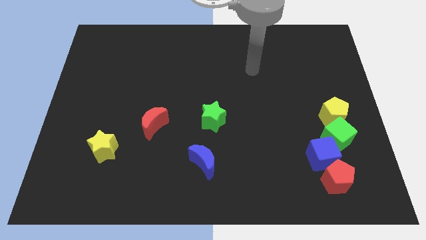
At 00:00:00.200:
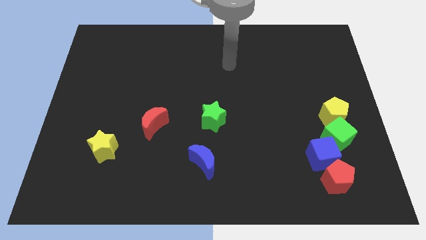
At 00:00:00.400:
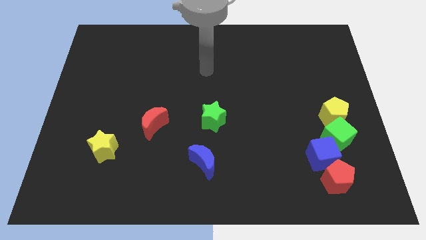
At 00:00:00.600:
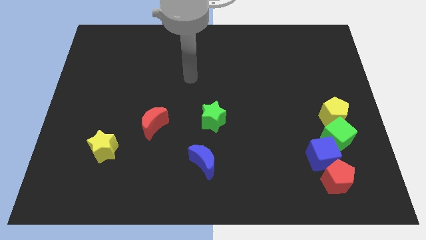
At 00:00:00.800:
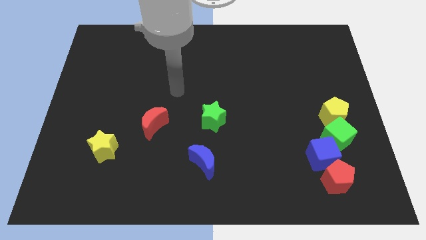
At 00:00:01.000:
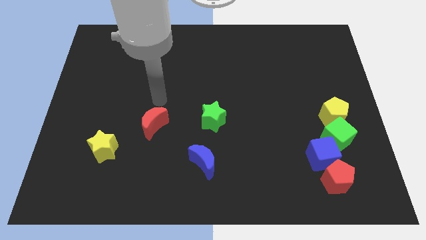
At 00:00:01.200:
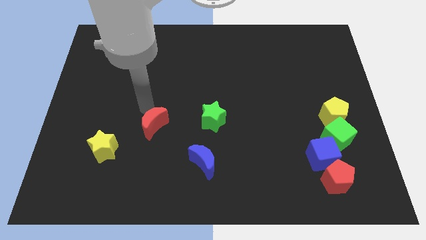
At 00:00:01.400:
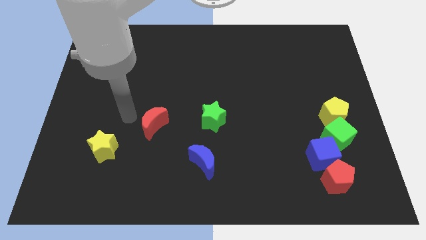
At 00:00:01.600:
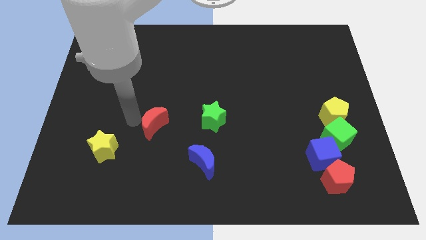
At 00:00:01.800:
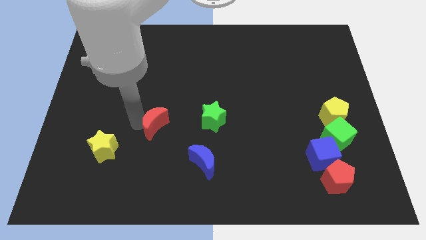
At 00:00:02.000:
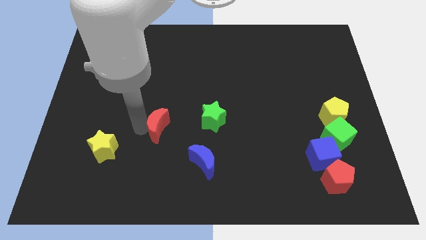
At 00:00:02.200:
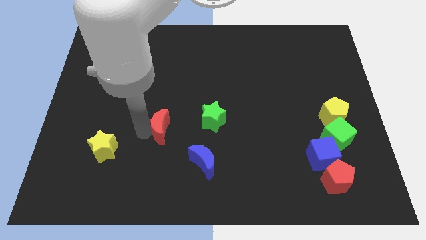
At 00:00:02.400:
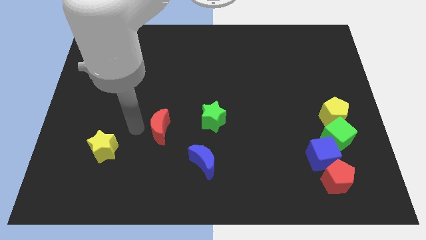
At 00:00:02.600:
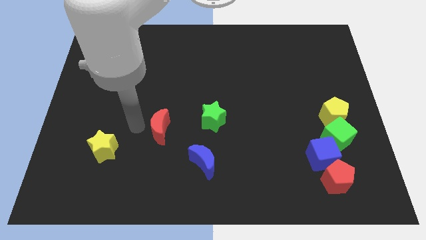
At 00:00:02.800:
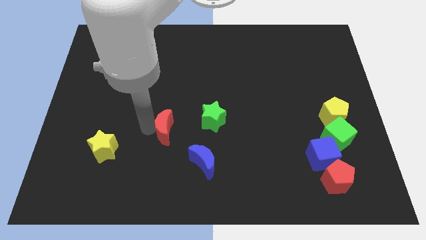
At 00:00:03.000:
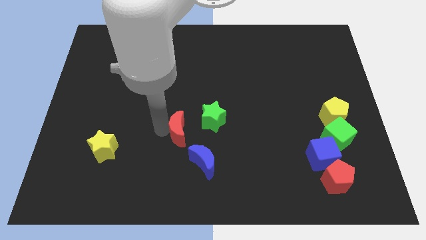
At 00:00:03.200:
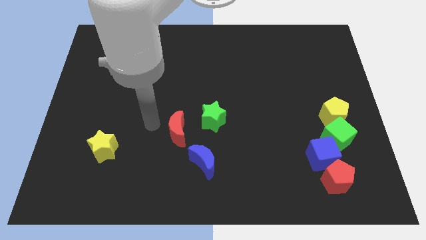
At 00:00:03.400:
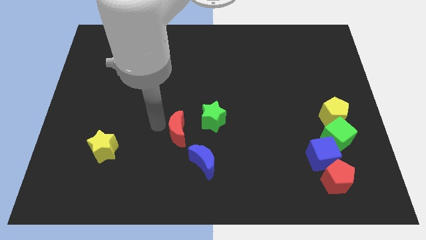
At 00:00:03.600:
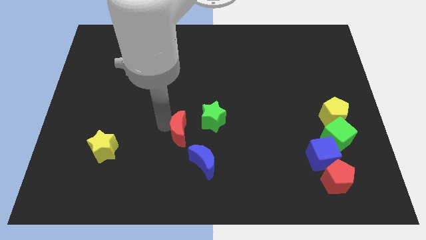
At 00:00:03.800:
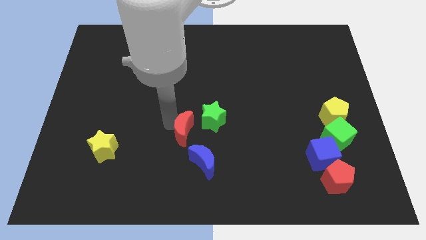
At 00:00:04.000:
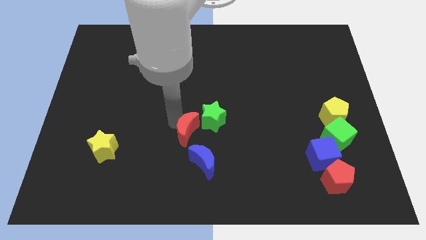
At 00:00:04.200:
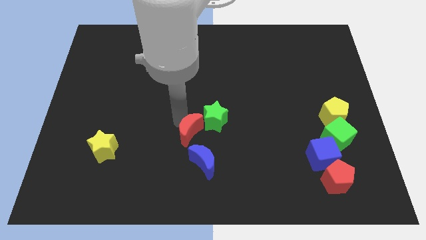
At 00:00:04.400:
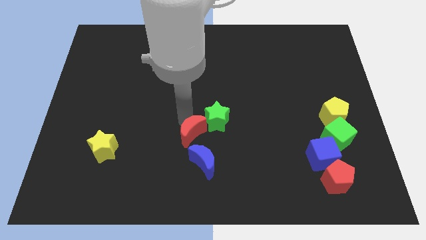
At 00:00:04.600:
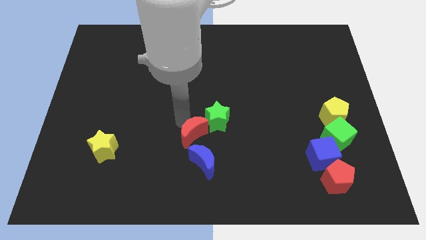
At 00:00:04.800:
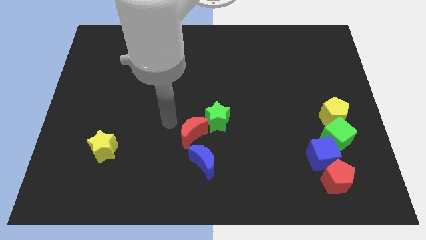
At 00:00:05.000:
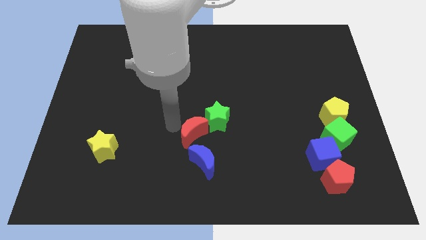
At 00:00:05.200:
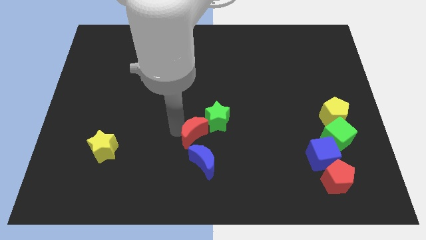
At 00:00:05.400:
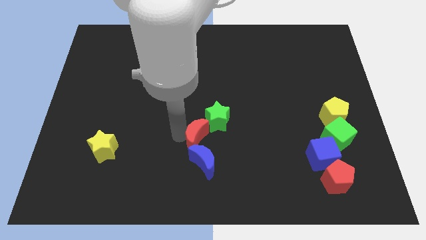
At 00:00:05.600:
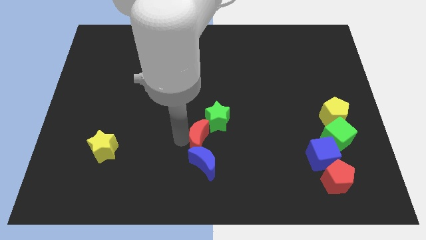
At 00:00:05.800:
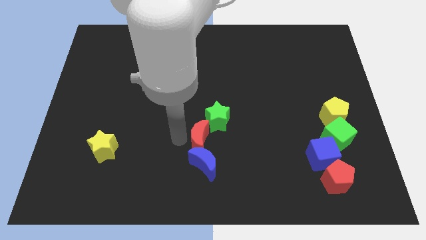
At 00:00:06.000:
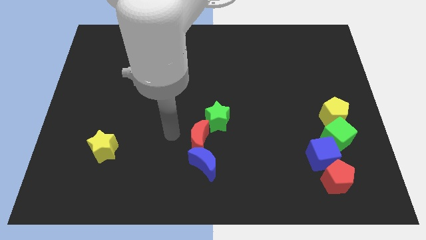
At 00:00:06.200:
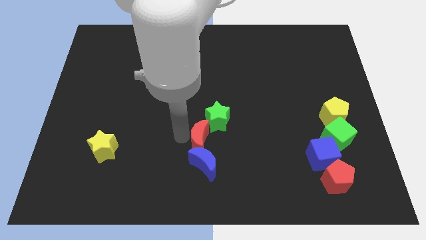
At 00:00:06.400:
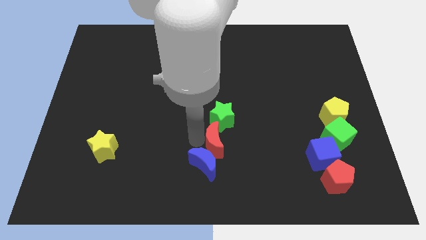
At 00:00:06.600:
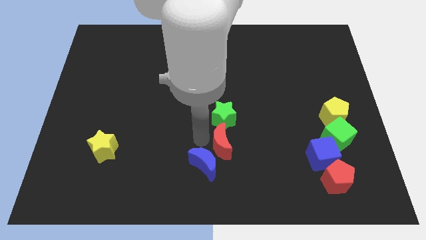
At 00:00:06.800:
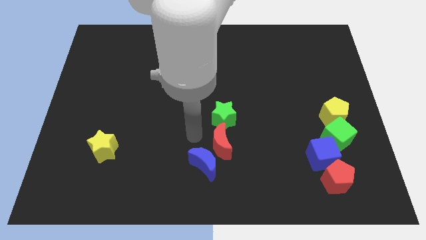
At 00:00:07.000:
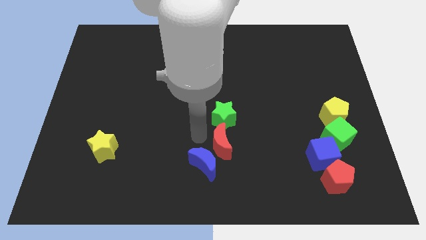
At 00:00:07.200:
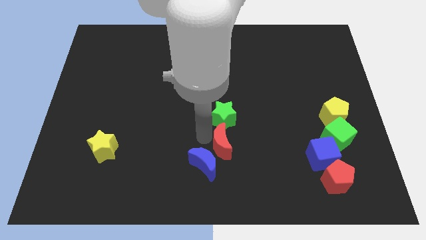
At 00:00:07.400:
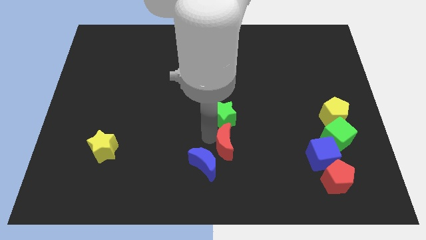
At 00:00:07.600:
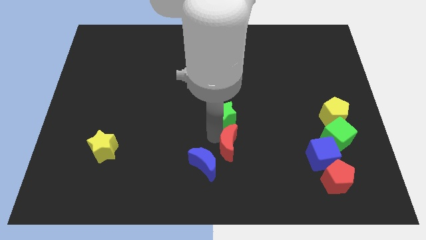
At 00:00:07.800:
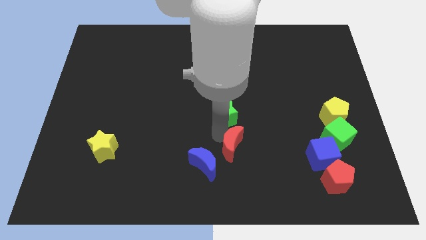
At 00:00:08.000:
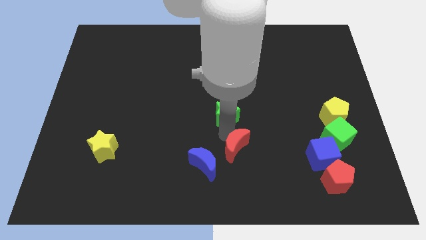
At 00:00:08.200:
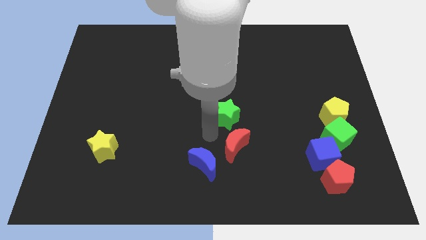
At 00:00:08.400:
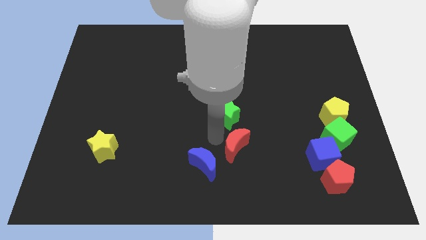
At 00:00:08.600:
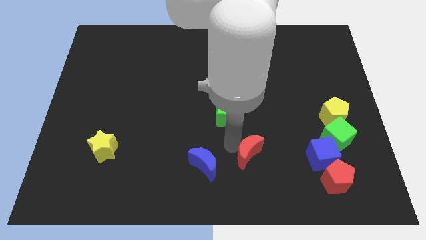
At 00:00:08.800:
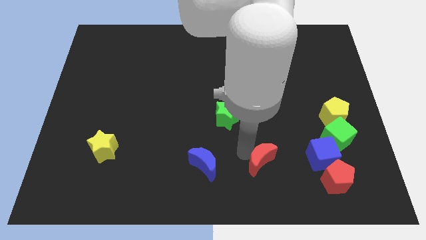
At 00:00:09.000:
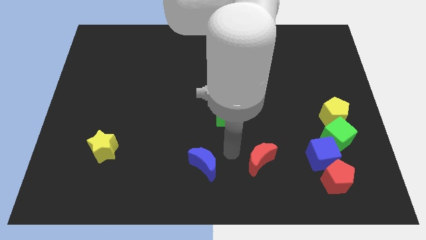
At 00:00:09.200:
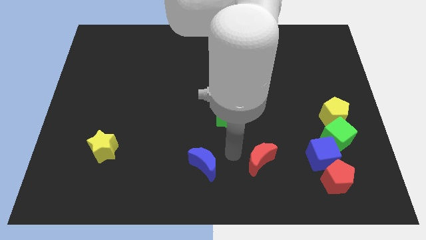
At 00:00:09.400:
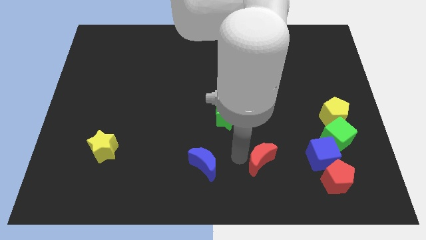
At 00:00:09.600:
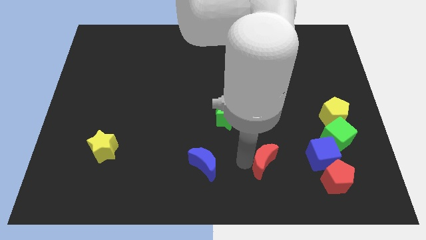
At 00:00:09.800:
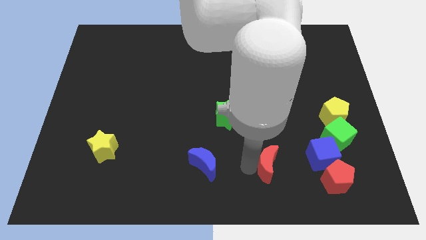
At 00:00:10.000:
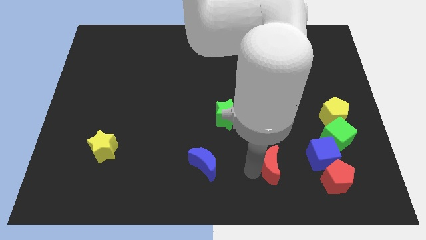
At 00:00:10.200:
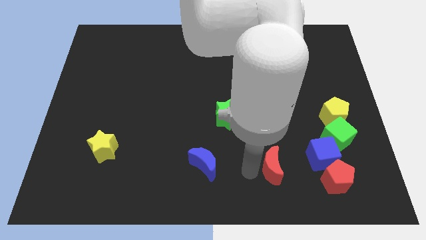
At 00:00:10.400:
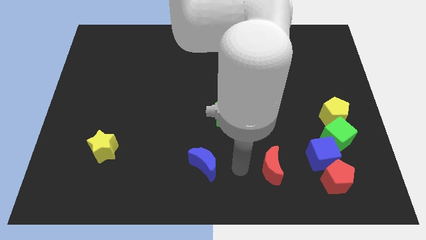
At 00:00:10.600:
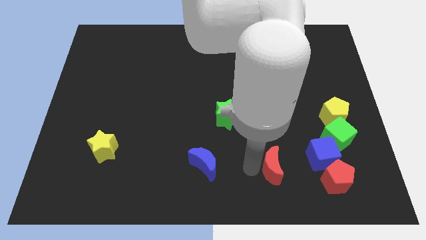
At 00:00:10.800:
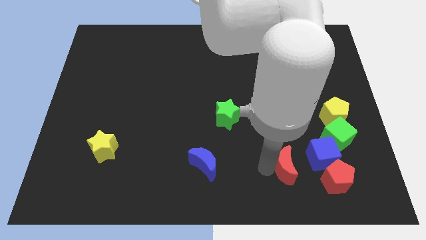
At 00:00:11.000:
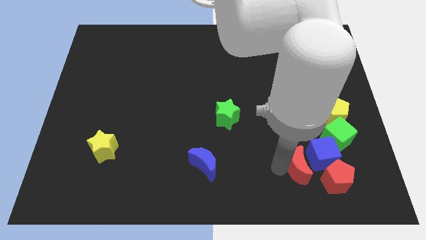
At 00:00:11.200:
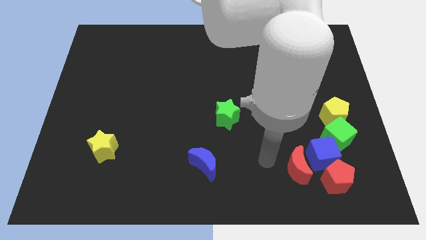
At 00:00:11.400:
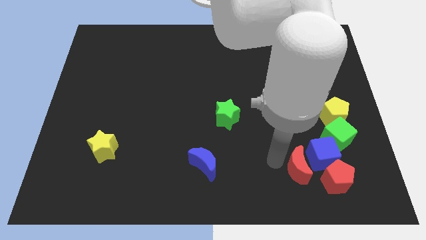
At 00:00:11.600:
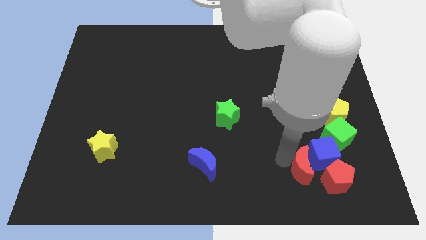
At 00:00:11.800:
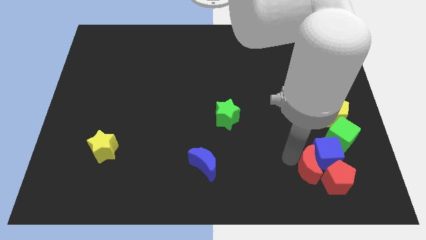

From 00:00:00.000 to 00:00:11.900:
put the red moon towards the red pentagon
